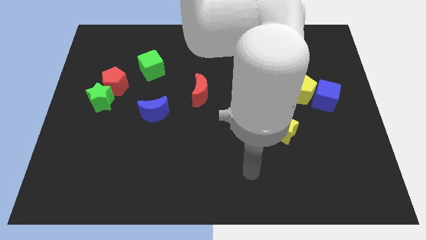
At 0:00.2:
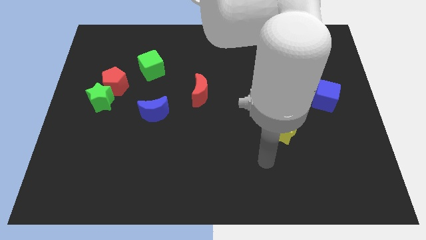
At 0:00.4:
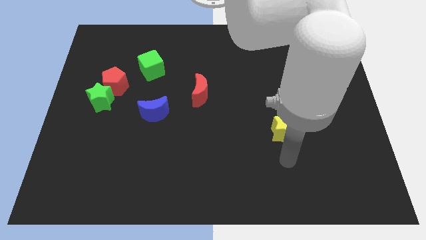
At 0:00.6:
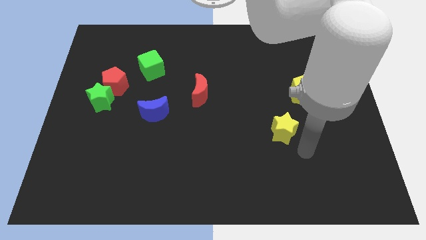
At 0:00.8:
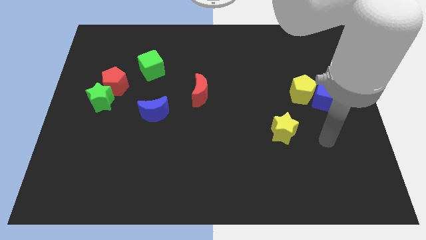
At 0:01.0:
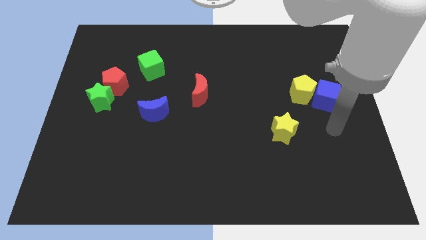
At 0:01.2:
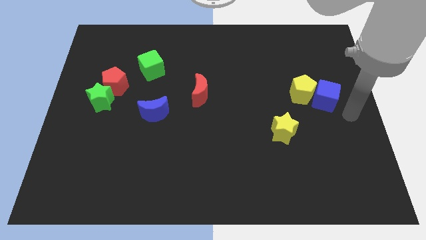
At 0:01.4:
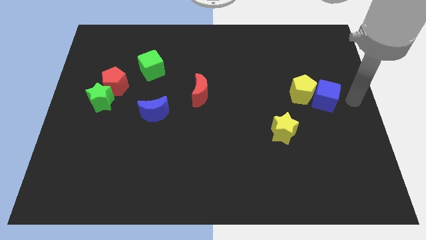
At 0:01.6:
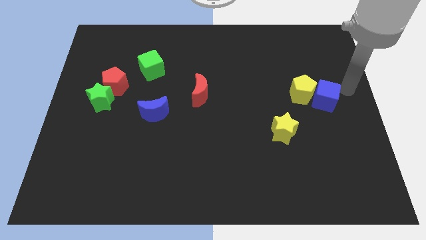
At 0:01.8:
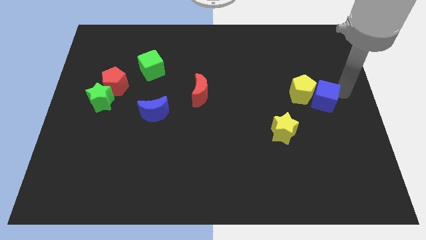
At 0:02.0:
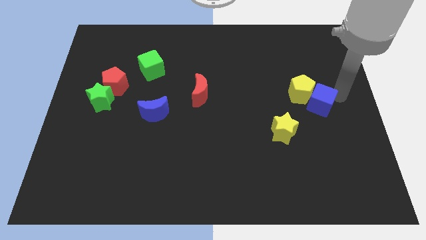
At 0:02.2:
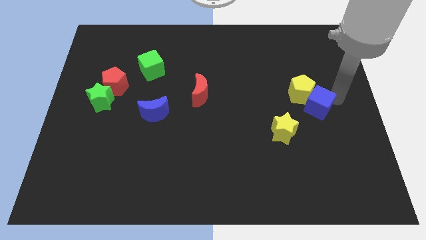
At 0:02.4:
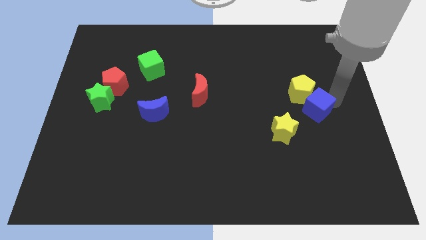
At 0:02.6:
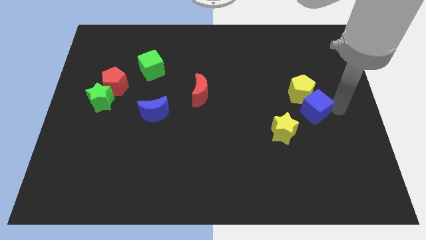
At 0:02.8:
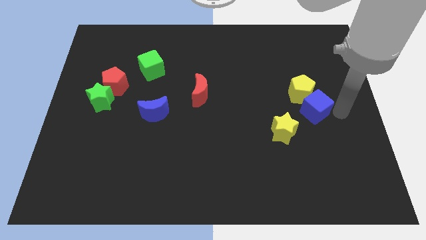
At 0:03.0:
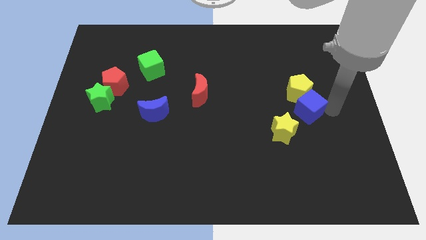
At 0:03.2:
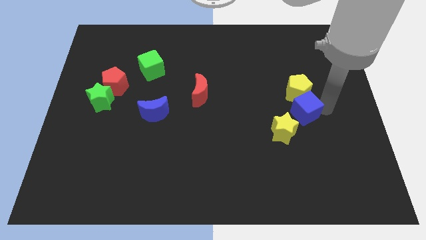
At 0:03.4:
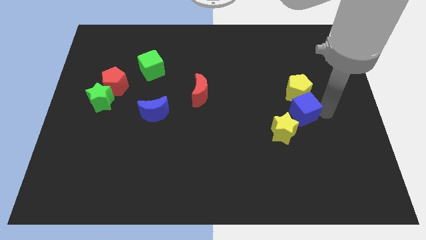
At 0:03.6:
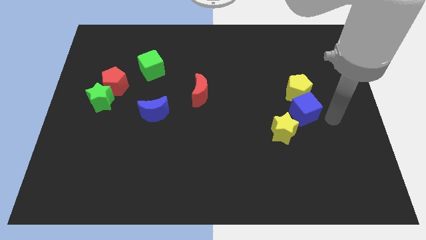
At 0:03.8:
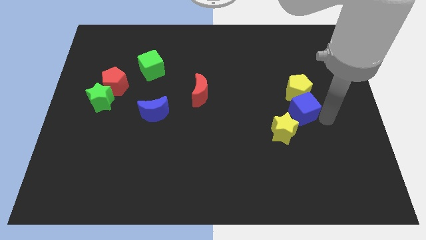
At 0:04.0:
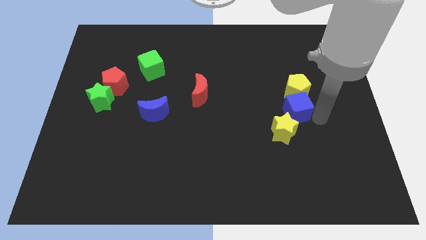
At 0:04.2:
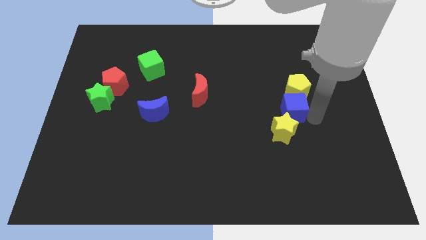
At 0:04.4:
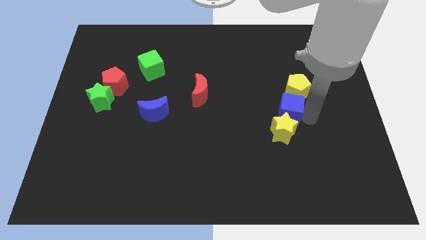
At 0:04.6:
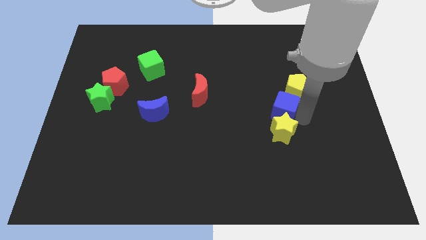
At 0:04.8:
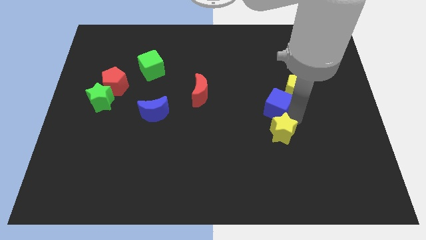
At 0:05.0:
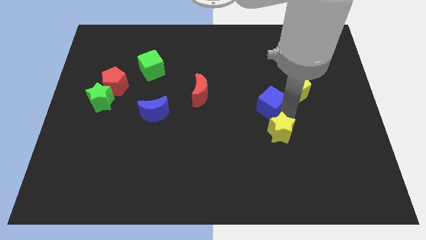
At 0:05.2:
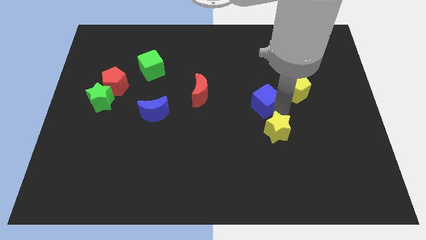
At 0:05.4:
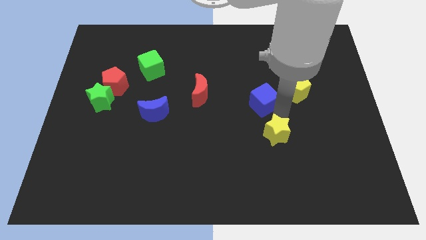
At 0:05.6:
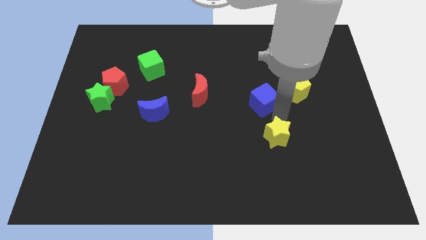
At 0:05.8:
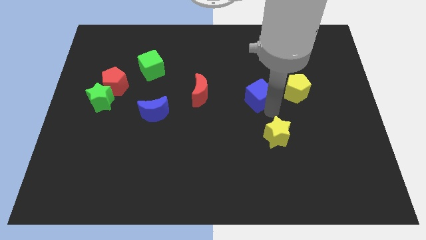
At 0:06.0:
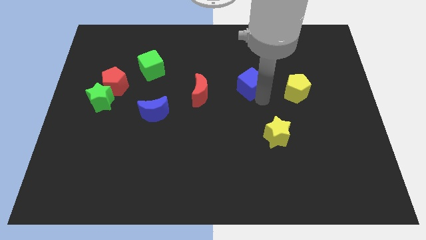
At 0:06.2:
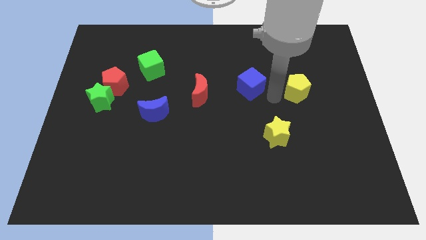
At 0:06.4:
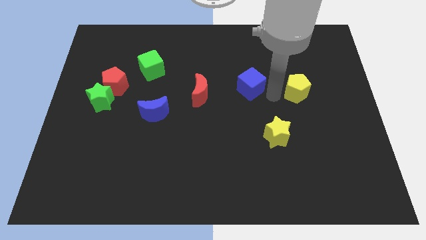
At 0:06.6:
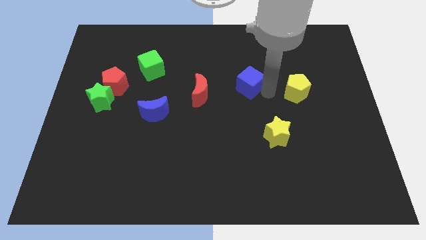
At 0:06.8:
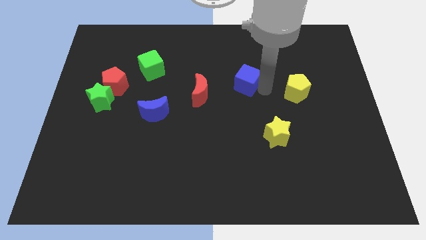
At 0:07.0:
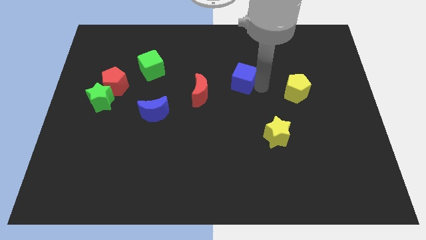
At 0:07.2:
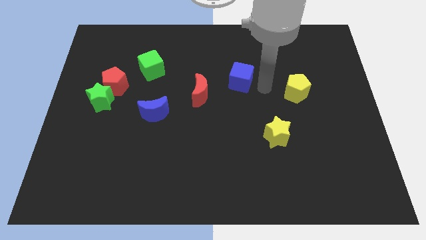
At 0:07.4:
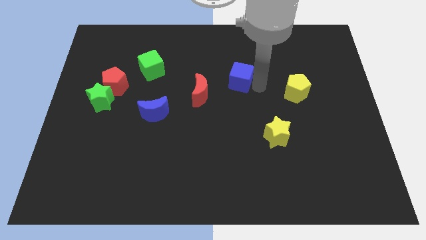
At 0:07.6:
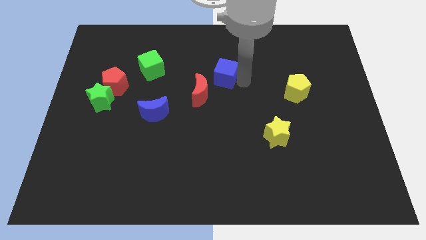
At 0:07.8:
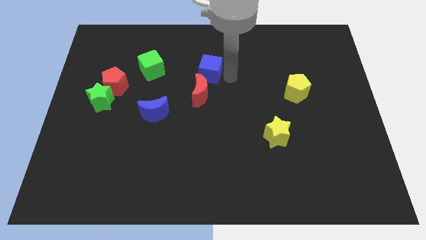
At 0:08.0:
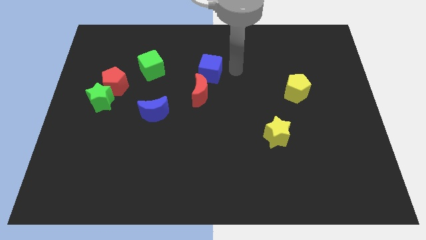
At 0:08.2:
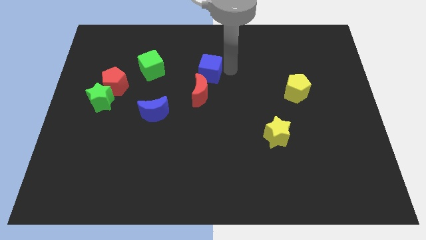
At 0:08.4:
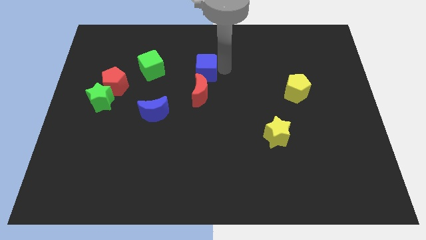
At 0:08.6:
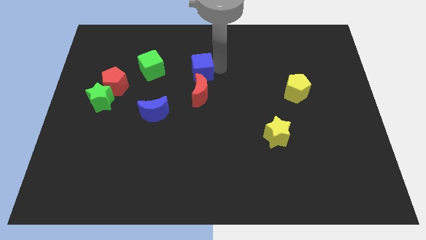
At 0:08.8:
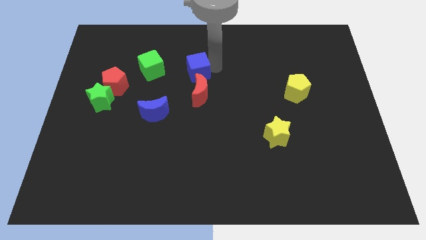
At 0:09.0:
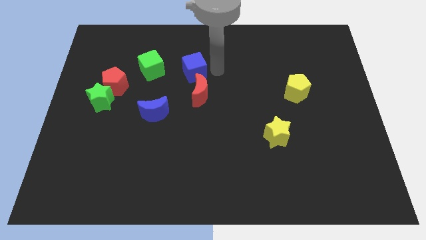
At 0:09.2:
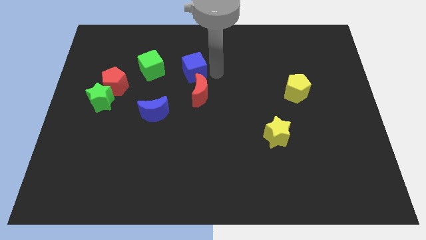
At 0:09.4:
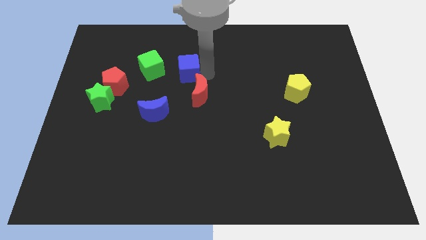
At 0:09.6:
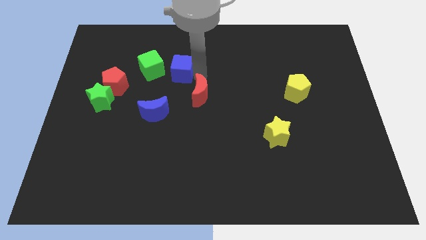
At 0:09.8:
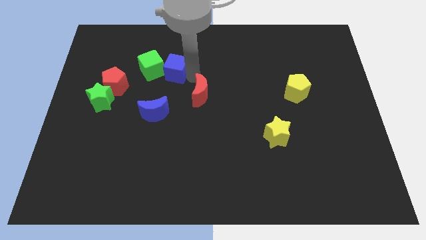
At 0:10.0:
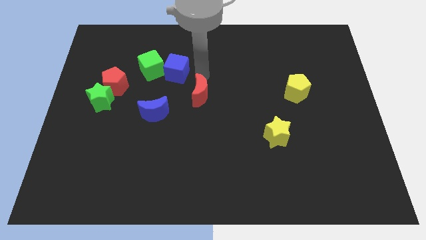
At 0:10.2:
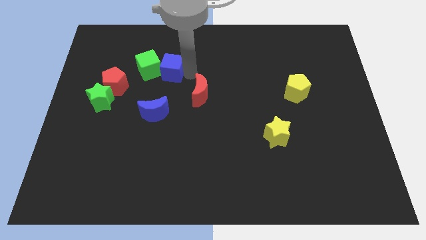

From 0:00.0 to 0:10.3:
slide the blue cube next to the green cube

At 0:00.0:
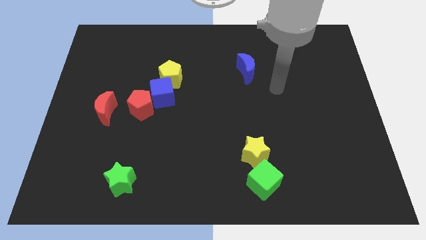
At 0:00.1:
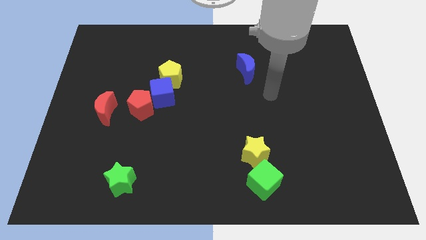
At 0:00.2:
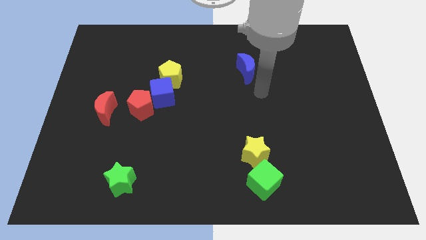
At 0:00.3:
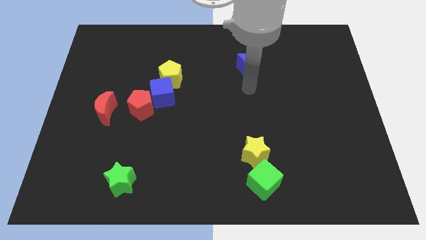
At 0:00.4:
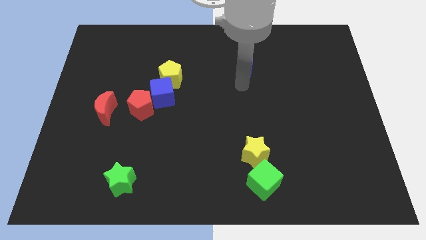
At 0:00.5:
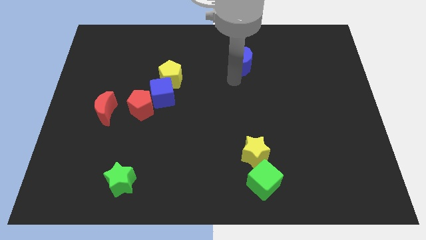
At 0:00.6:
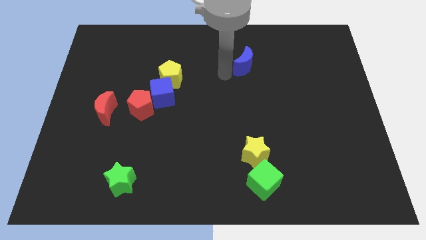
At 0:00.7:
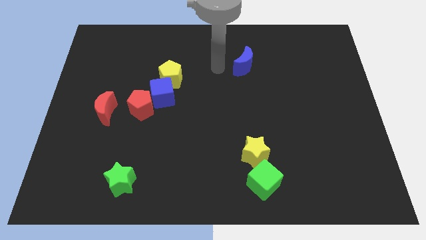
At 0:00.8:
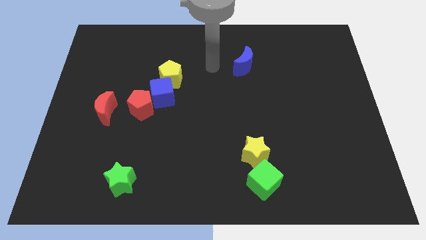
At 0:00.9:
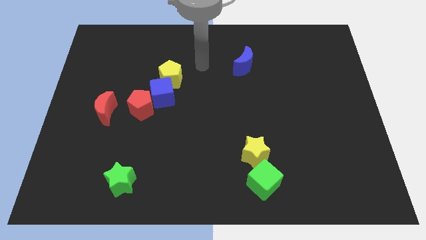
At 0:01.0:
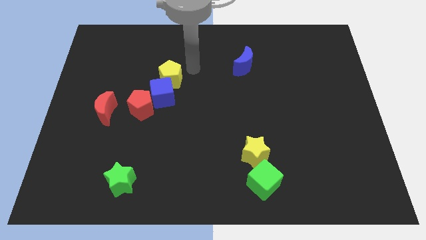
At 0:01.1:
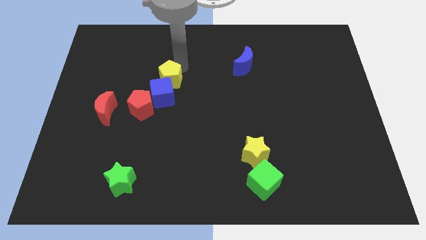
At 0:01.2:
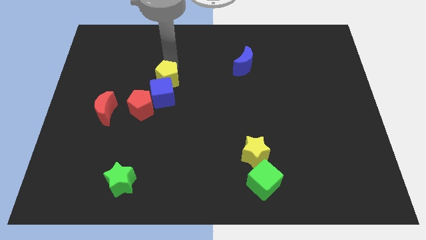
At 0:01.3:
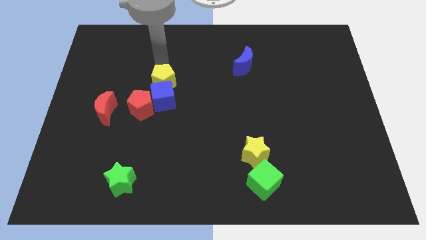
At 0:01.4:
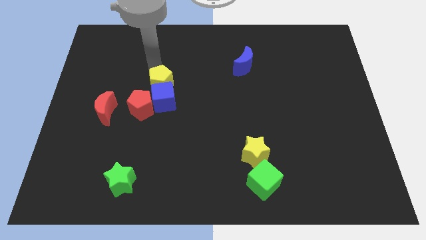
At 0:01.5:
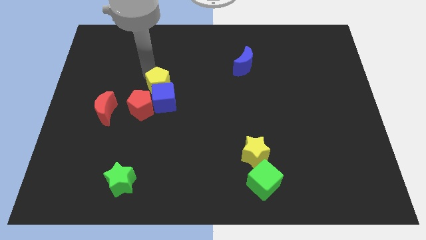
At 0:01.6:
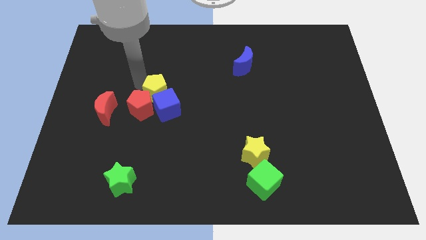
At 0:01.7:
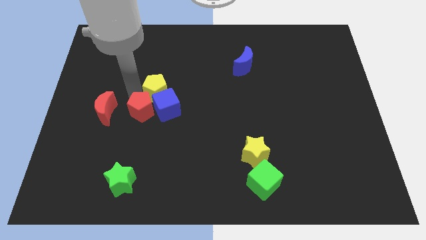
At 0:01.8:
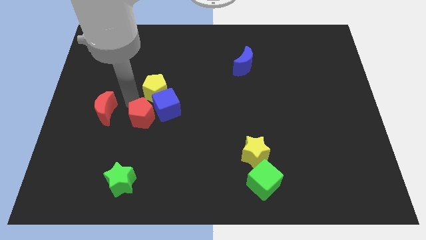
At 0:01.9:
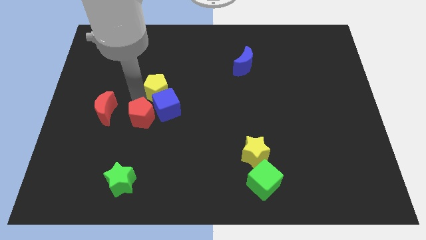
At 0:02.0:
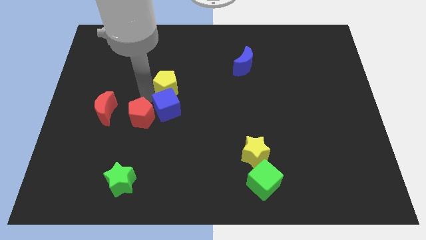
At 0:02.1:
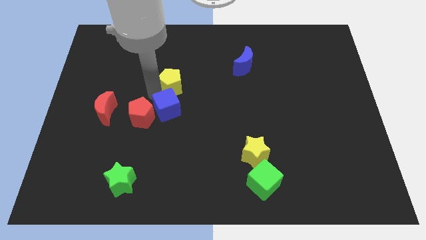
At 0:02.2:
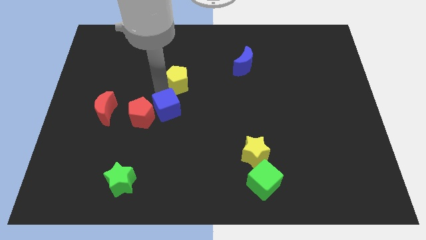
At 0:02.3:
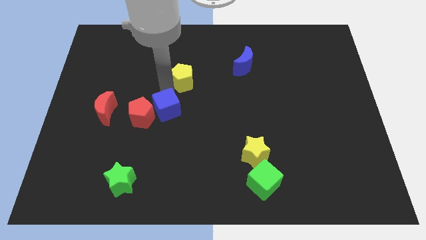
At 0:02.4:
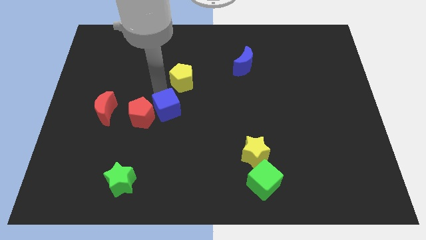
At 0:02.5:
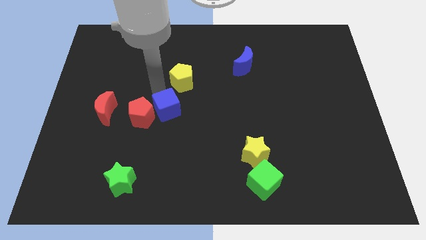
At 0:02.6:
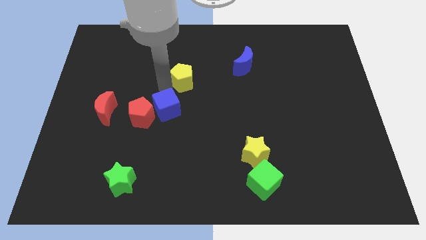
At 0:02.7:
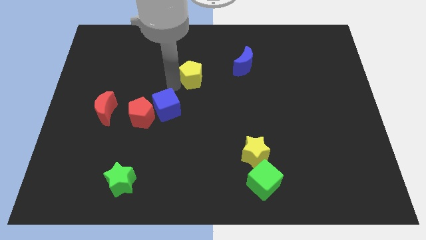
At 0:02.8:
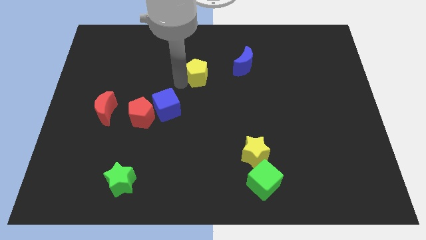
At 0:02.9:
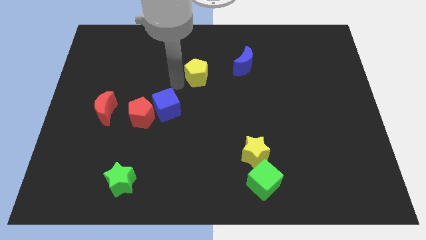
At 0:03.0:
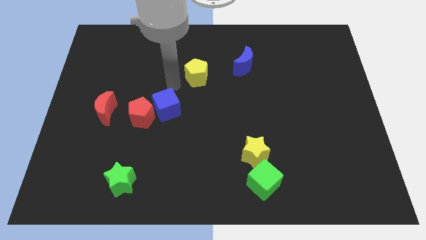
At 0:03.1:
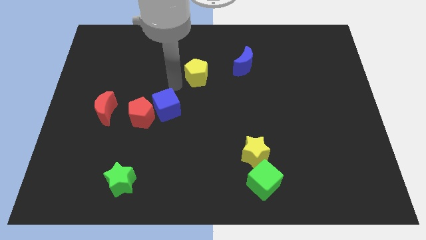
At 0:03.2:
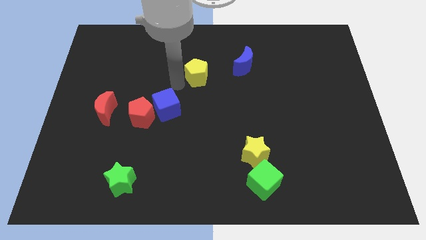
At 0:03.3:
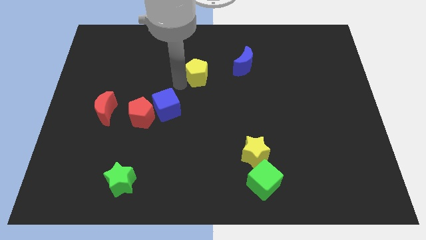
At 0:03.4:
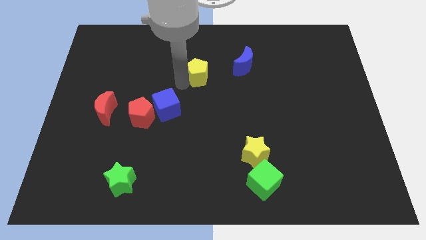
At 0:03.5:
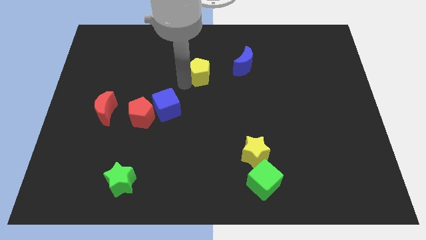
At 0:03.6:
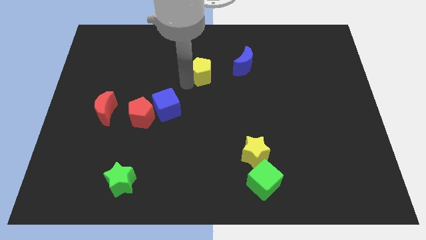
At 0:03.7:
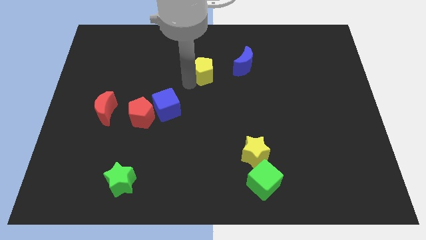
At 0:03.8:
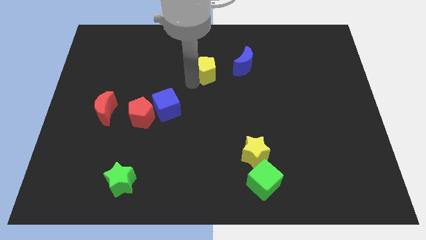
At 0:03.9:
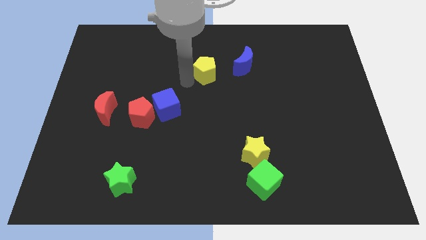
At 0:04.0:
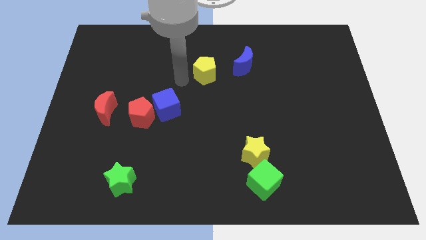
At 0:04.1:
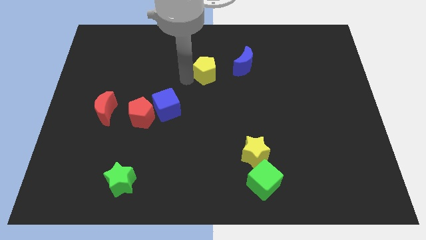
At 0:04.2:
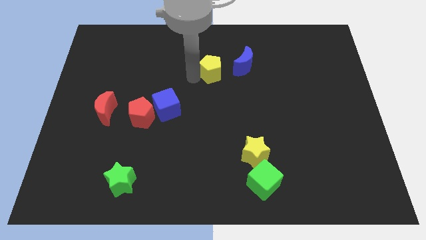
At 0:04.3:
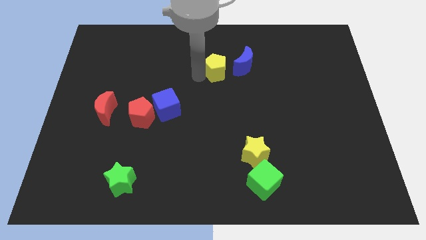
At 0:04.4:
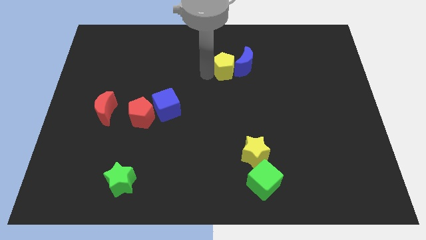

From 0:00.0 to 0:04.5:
put the yellow pentagon to the blue moon
